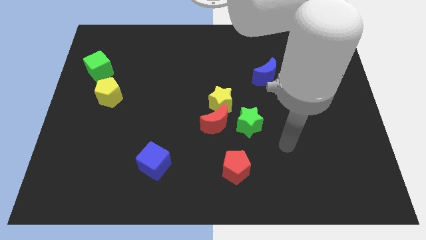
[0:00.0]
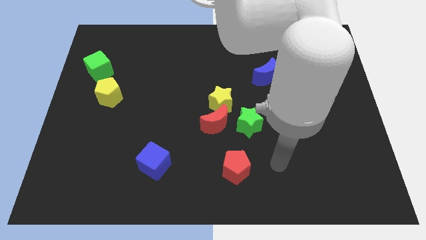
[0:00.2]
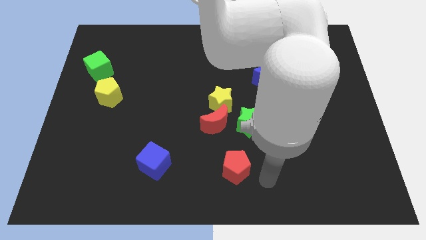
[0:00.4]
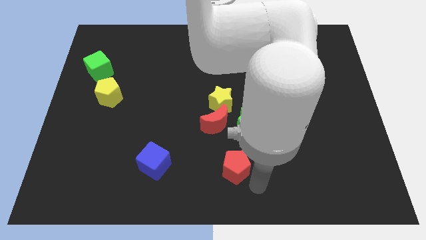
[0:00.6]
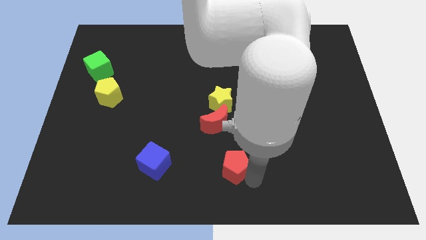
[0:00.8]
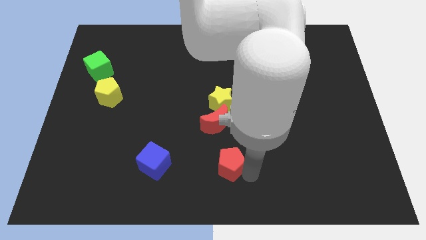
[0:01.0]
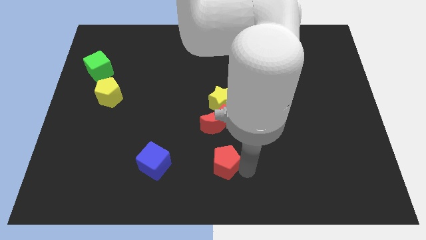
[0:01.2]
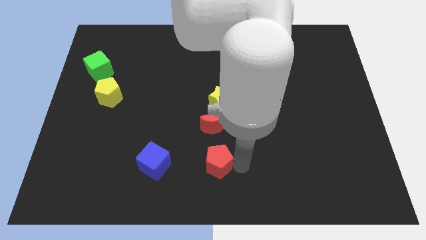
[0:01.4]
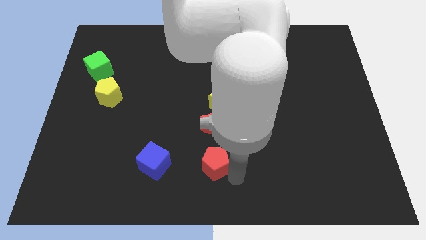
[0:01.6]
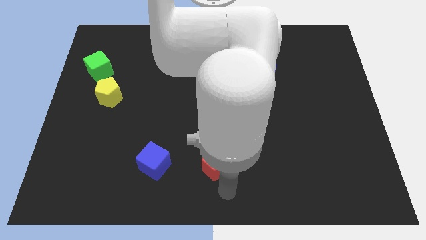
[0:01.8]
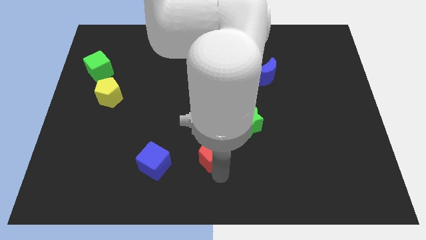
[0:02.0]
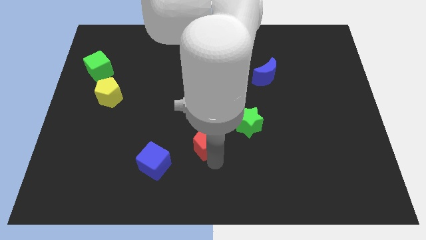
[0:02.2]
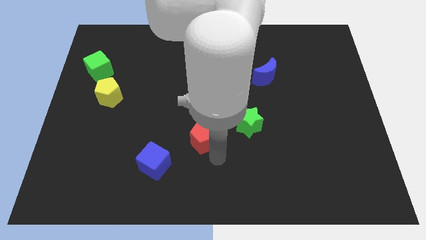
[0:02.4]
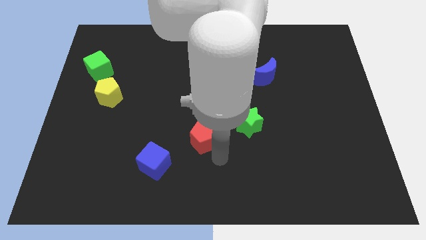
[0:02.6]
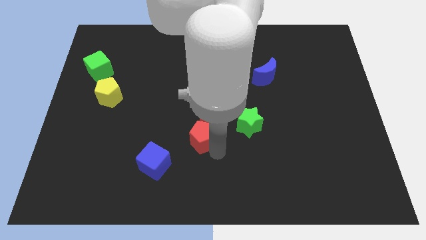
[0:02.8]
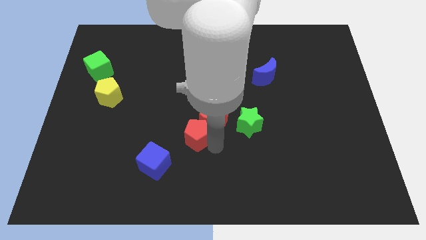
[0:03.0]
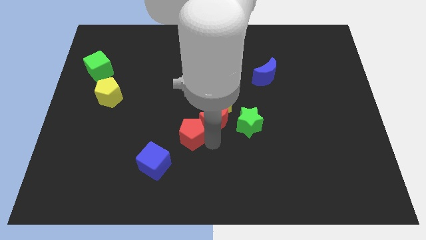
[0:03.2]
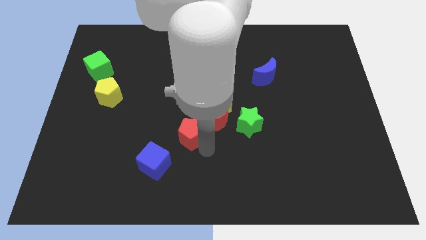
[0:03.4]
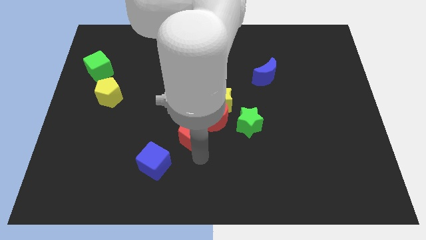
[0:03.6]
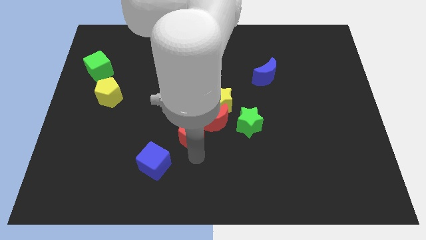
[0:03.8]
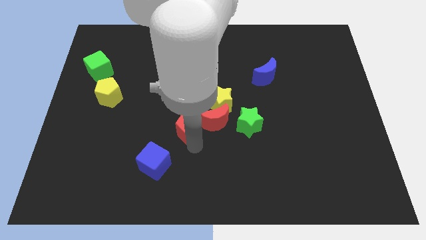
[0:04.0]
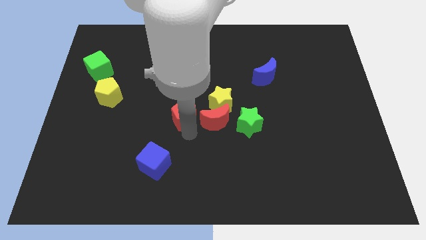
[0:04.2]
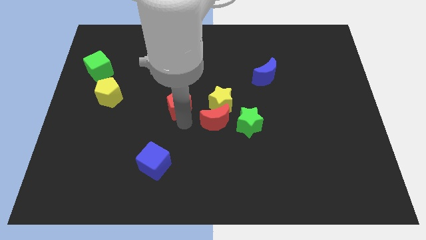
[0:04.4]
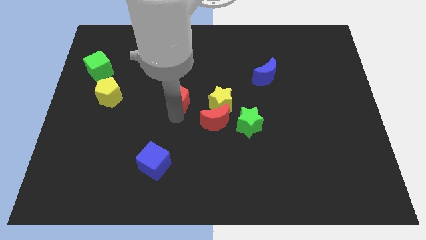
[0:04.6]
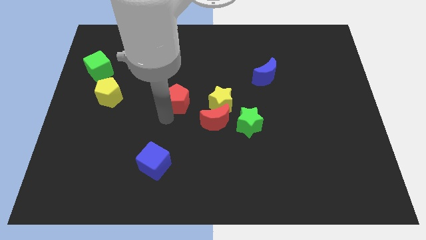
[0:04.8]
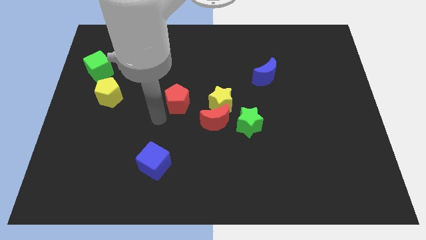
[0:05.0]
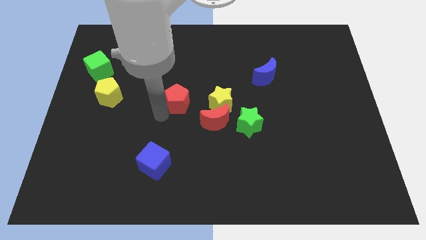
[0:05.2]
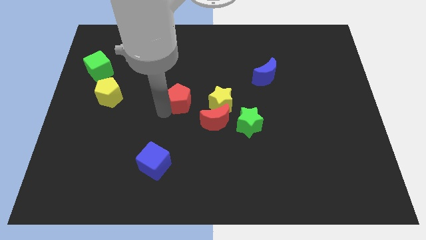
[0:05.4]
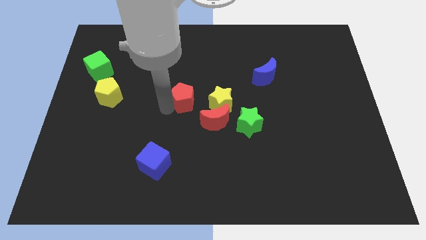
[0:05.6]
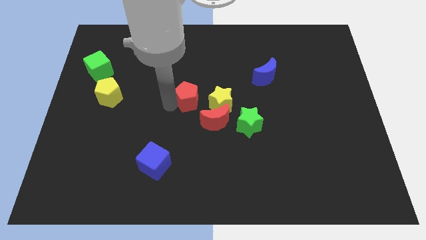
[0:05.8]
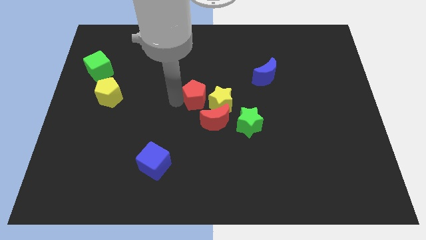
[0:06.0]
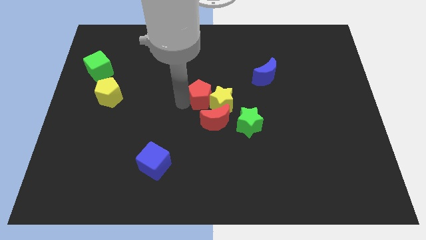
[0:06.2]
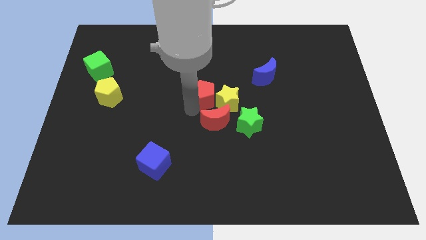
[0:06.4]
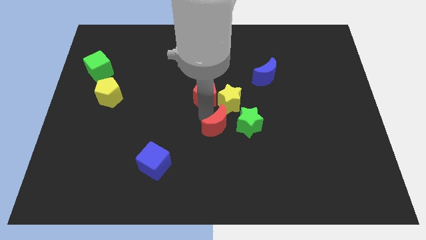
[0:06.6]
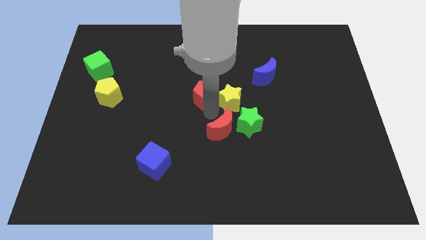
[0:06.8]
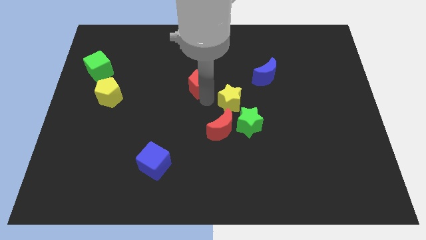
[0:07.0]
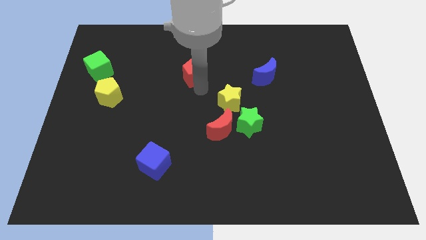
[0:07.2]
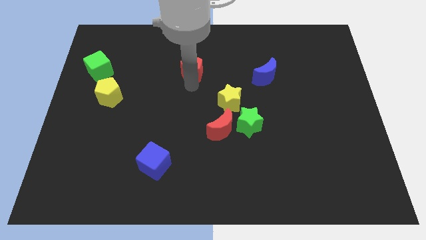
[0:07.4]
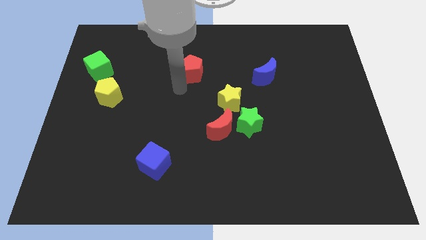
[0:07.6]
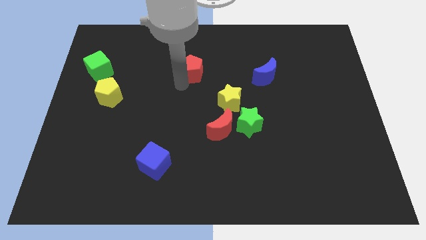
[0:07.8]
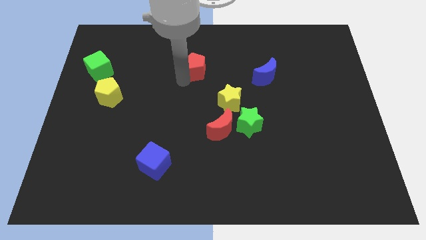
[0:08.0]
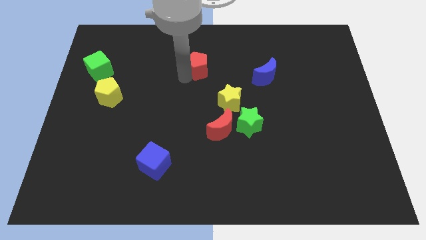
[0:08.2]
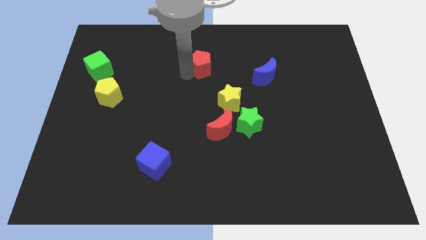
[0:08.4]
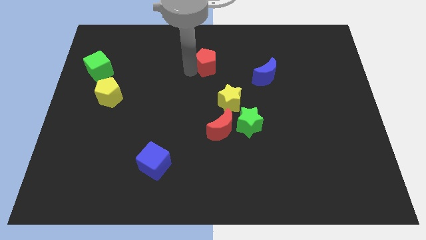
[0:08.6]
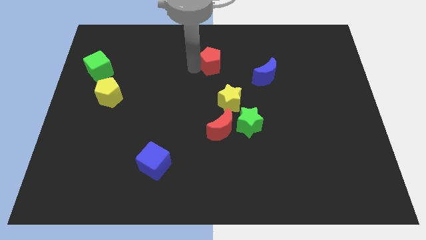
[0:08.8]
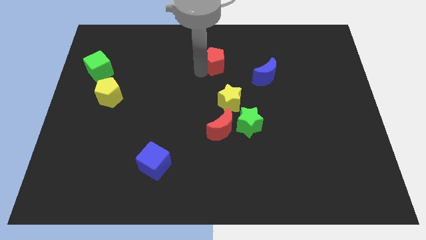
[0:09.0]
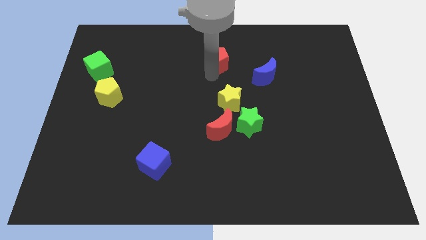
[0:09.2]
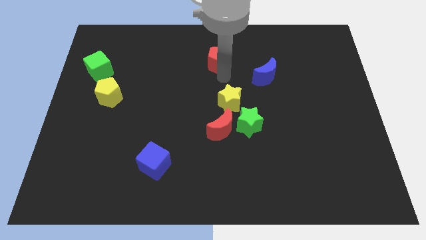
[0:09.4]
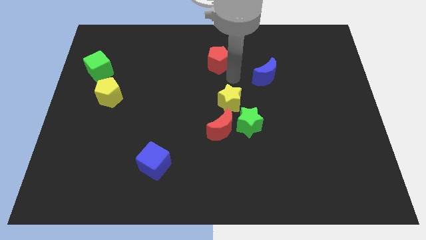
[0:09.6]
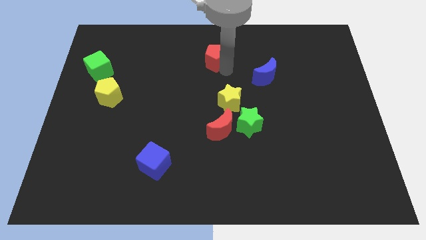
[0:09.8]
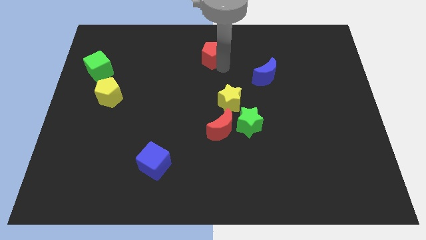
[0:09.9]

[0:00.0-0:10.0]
push the red pentagon to the top

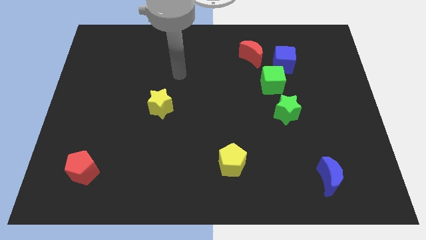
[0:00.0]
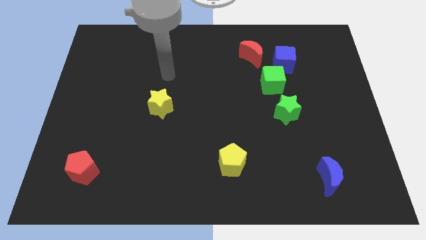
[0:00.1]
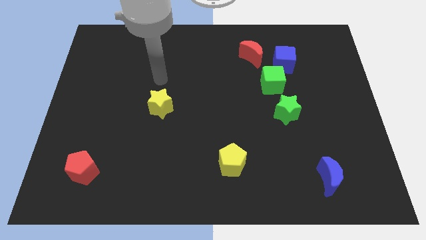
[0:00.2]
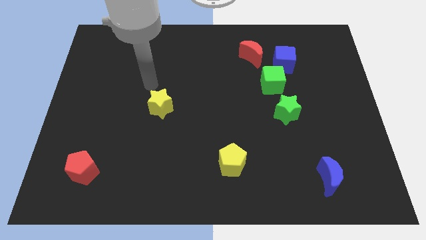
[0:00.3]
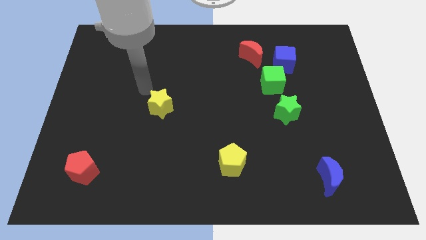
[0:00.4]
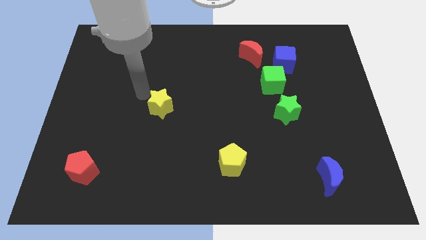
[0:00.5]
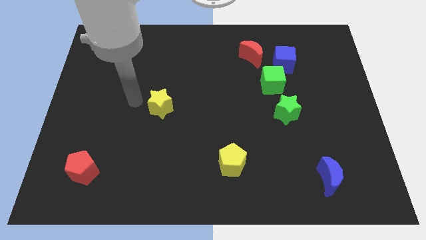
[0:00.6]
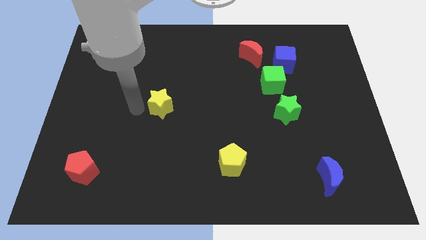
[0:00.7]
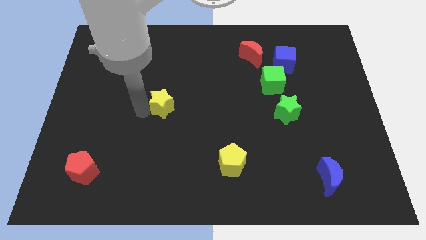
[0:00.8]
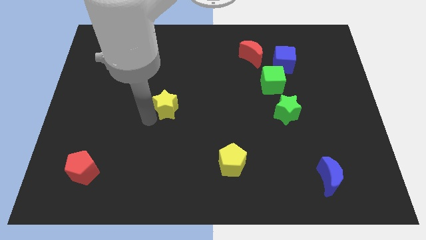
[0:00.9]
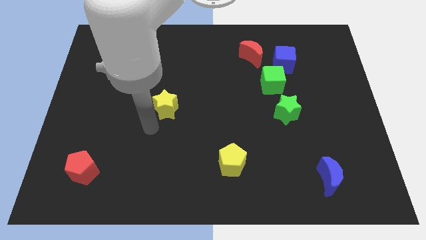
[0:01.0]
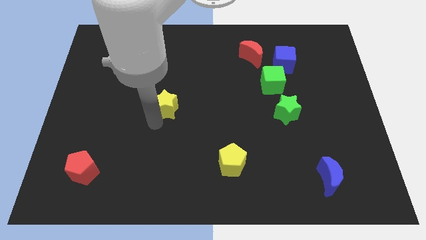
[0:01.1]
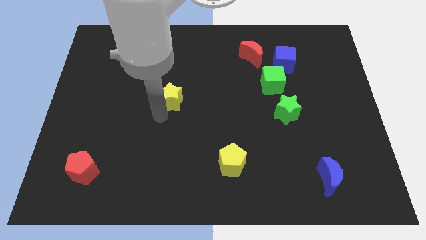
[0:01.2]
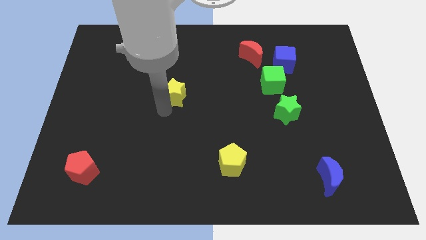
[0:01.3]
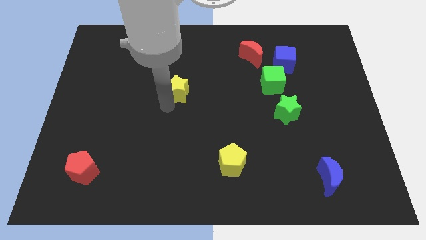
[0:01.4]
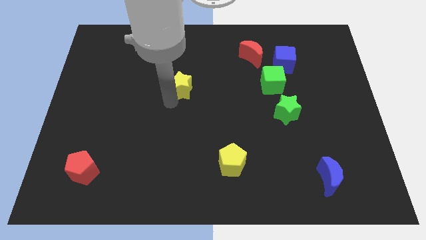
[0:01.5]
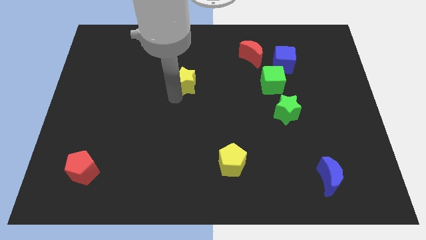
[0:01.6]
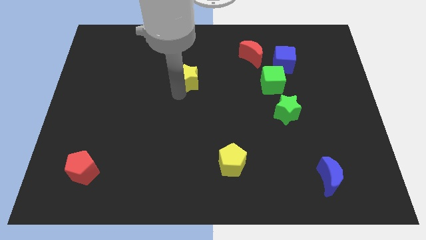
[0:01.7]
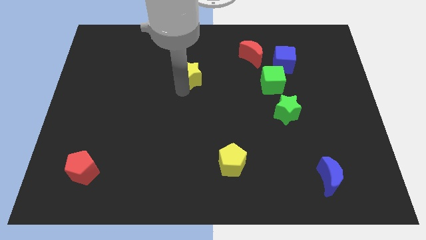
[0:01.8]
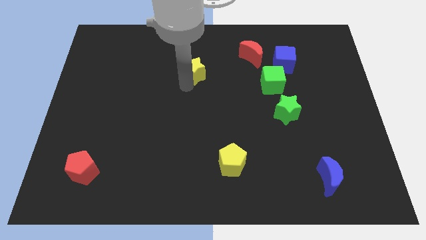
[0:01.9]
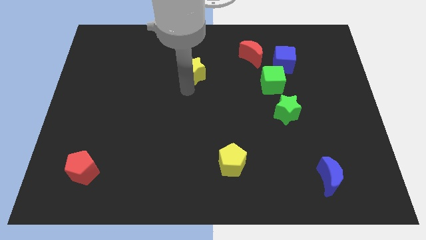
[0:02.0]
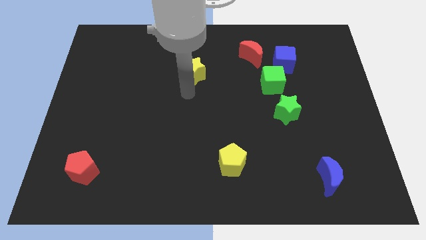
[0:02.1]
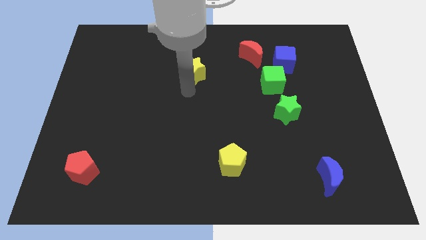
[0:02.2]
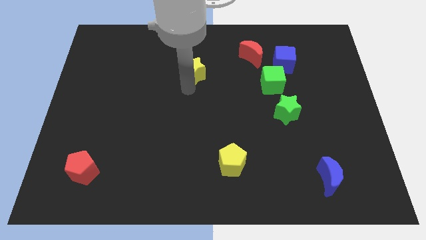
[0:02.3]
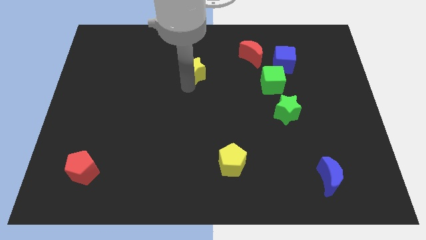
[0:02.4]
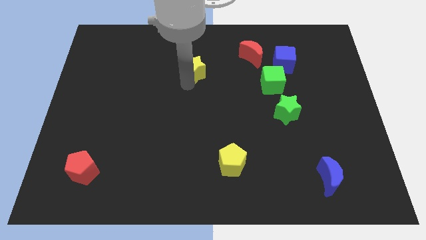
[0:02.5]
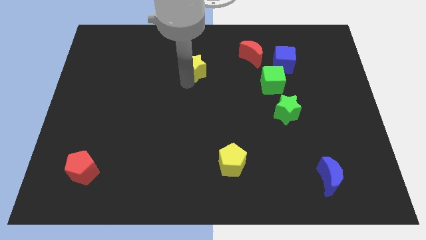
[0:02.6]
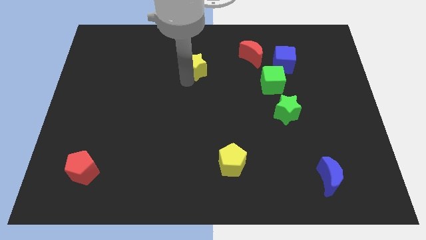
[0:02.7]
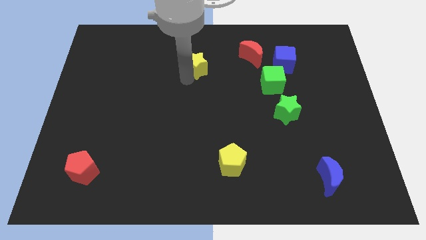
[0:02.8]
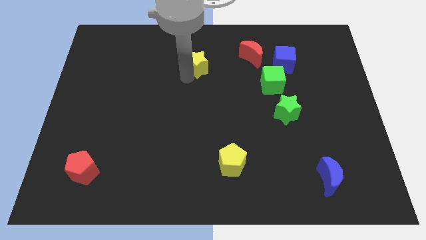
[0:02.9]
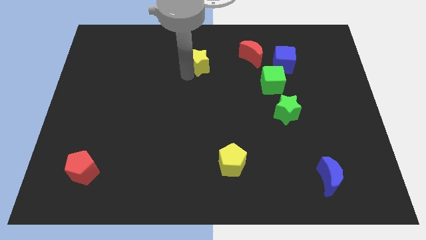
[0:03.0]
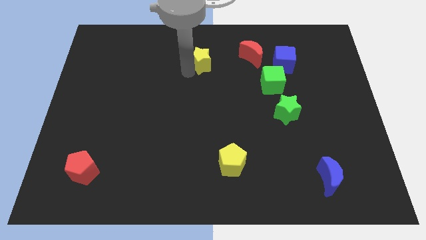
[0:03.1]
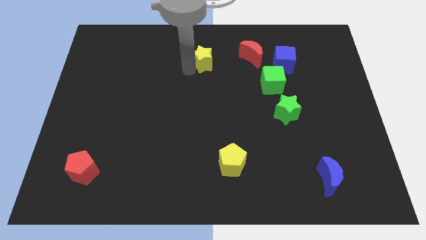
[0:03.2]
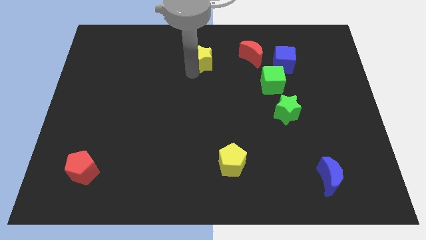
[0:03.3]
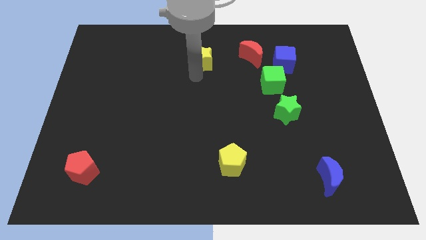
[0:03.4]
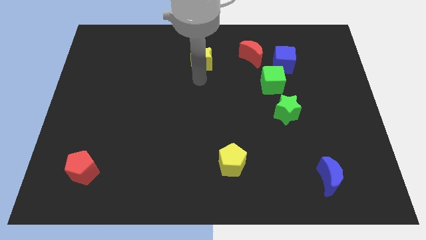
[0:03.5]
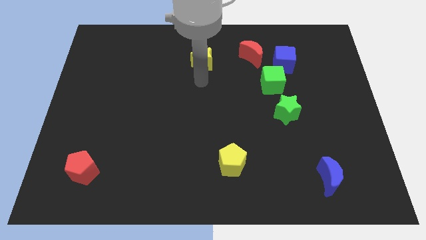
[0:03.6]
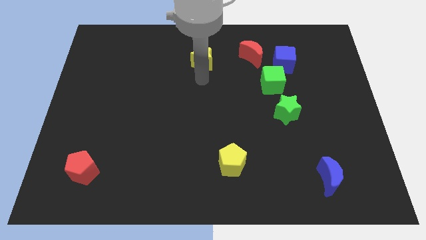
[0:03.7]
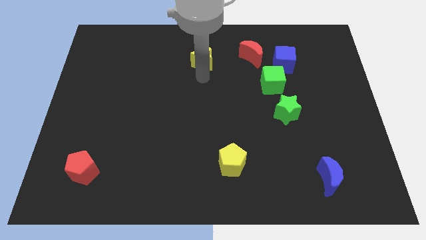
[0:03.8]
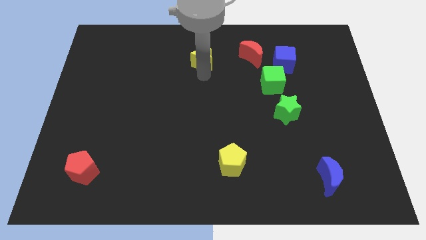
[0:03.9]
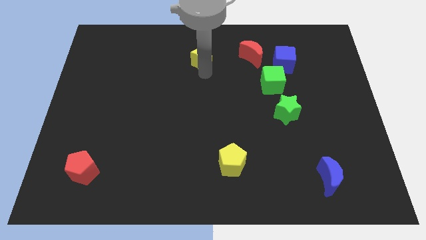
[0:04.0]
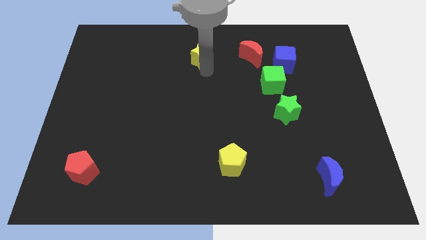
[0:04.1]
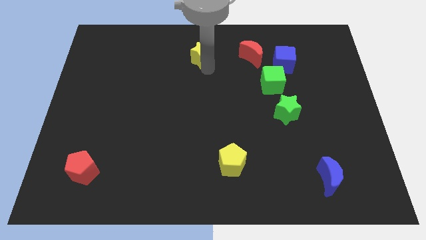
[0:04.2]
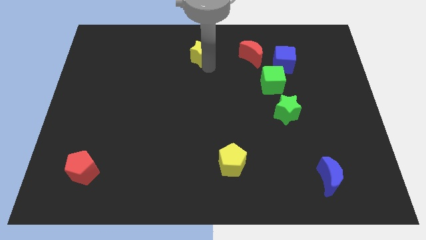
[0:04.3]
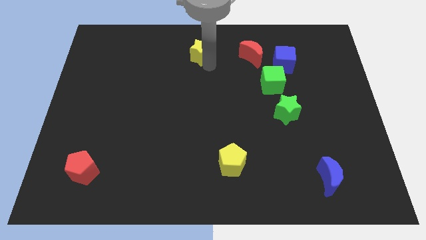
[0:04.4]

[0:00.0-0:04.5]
put the yellow star to the top side
